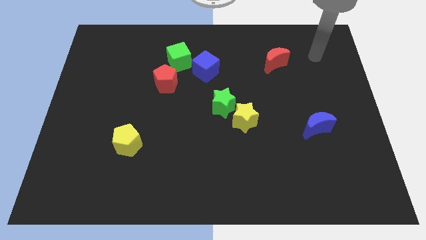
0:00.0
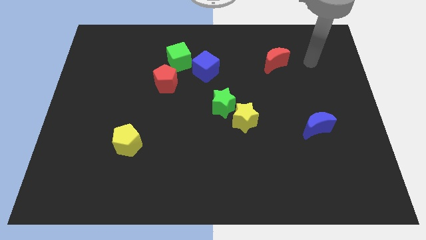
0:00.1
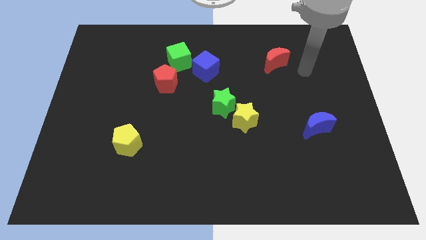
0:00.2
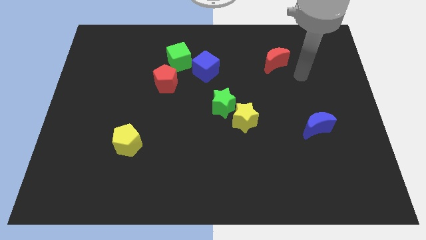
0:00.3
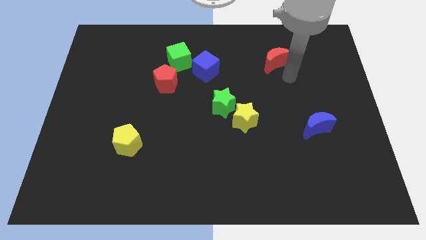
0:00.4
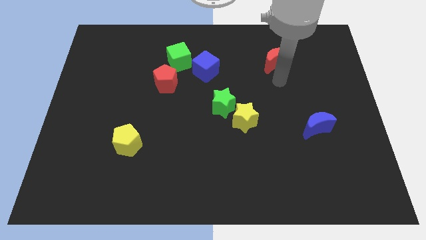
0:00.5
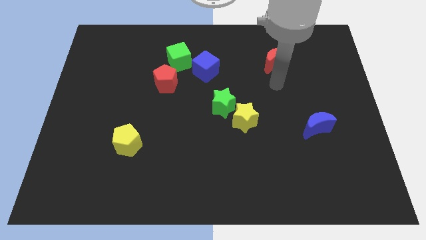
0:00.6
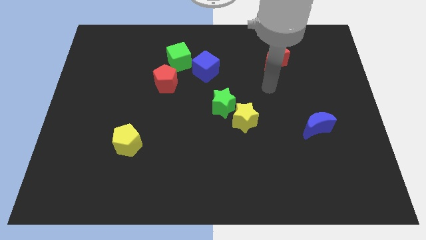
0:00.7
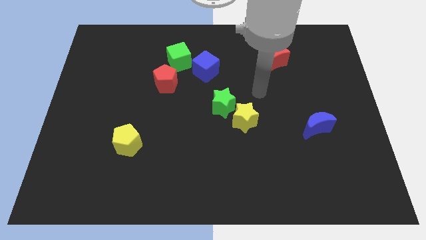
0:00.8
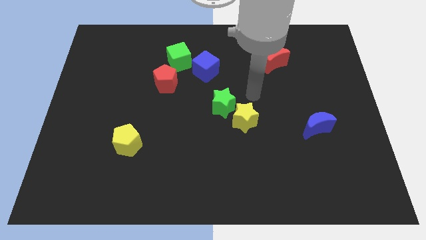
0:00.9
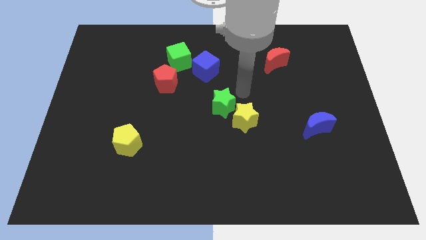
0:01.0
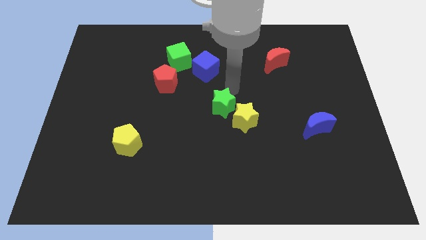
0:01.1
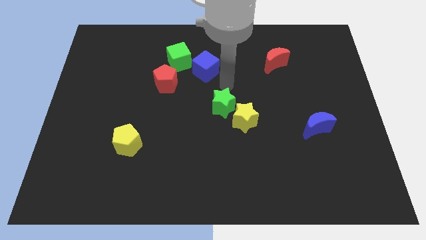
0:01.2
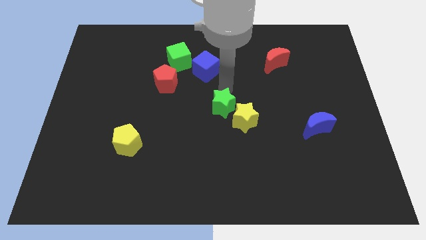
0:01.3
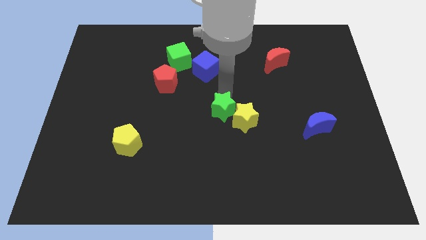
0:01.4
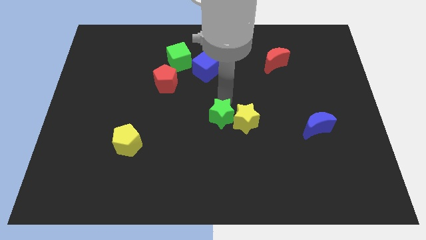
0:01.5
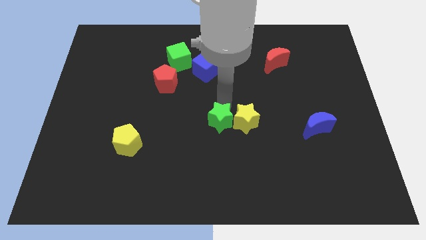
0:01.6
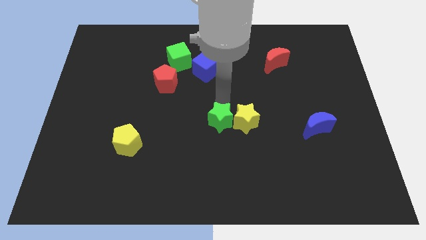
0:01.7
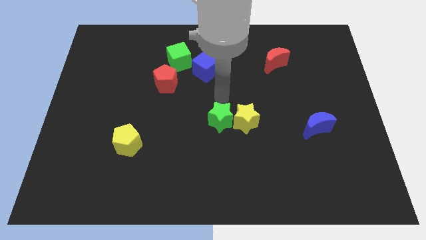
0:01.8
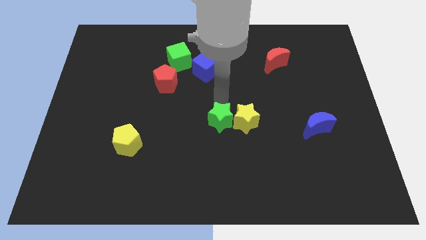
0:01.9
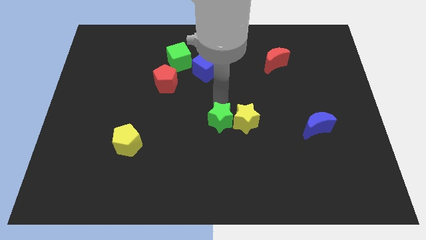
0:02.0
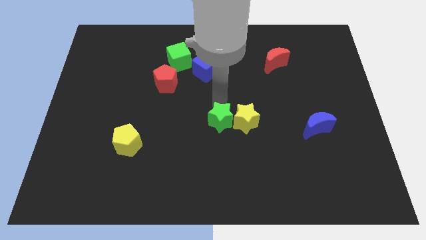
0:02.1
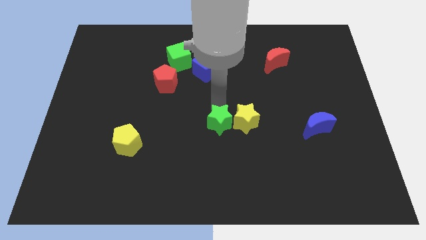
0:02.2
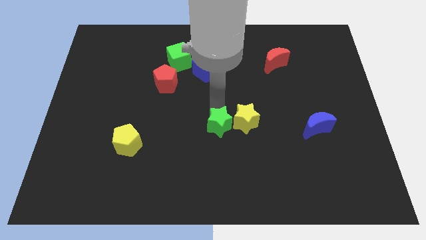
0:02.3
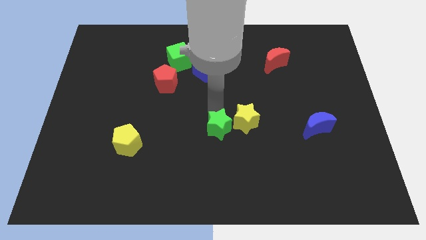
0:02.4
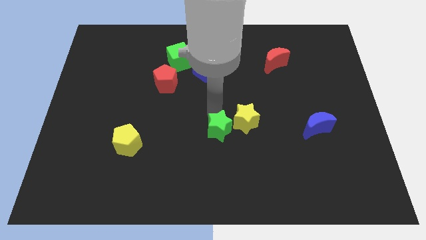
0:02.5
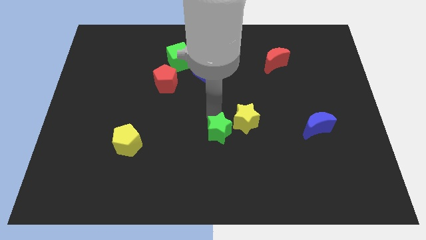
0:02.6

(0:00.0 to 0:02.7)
slightly push the green star down

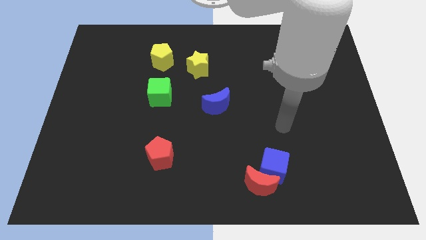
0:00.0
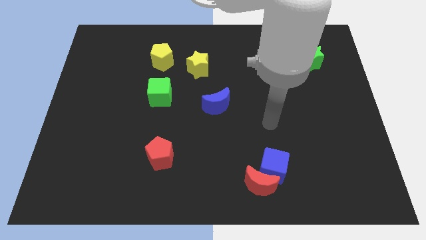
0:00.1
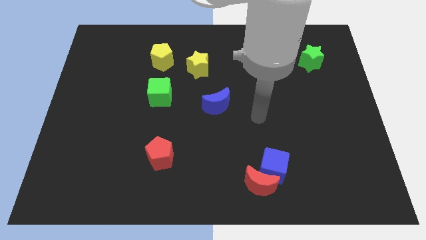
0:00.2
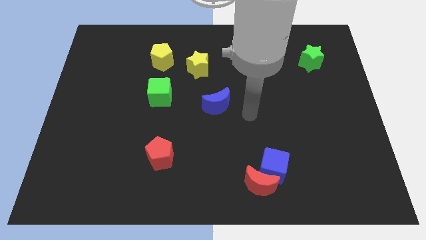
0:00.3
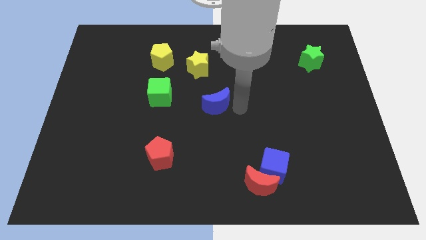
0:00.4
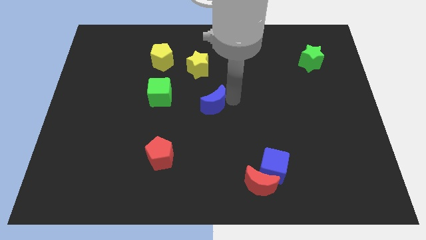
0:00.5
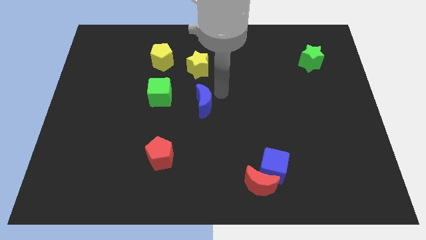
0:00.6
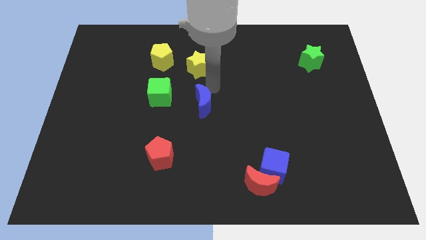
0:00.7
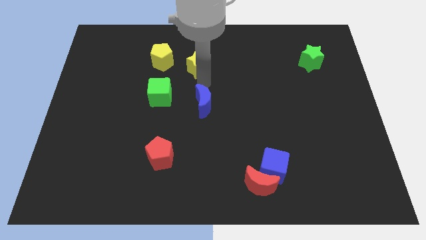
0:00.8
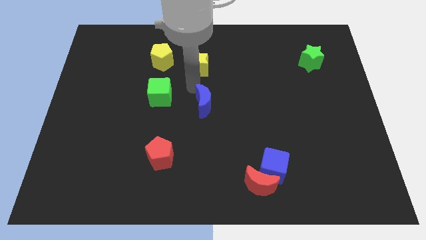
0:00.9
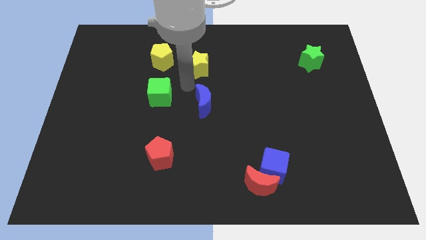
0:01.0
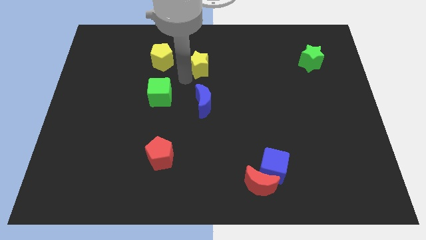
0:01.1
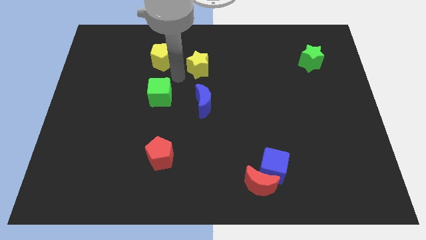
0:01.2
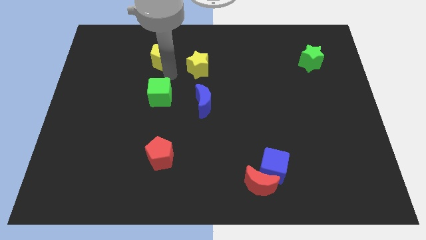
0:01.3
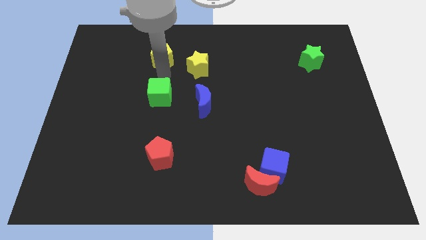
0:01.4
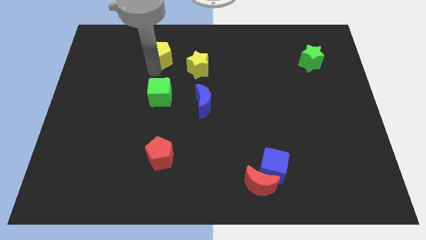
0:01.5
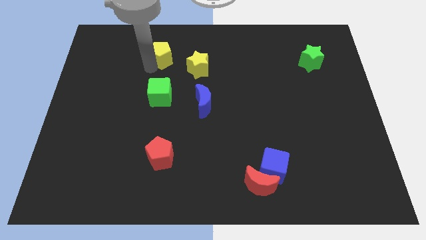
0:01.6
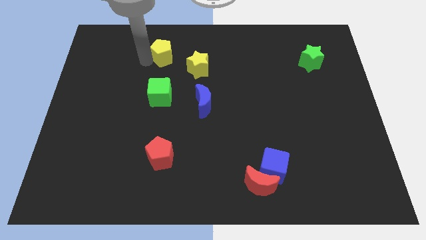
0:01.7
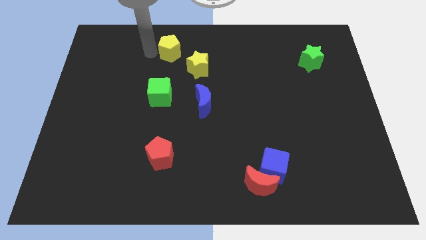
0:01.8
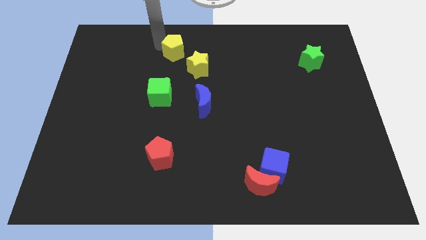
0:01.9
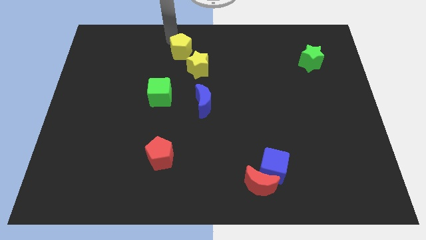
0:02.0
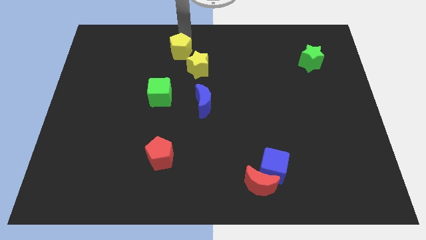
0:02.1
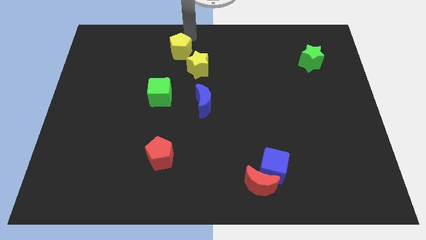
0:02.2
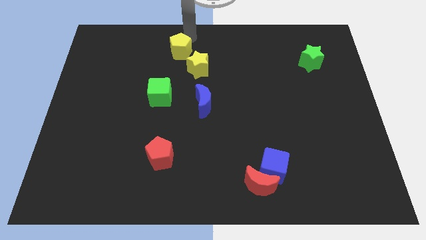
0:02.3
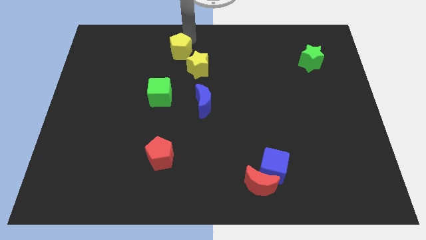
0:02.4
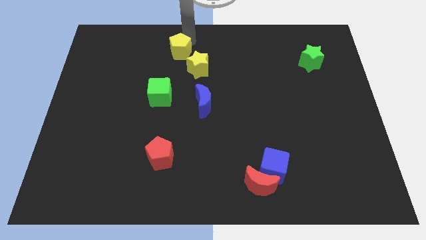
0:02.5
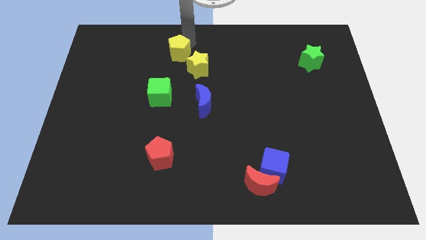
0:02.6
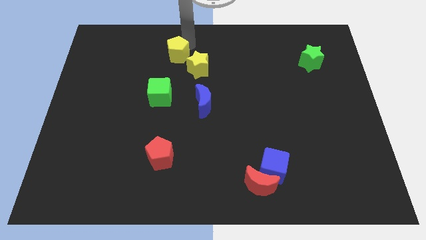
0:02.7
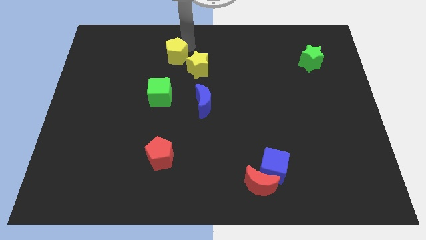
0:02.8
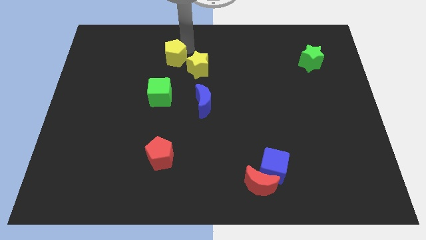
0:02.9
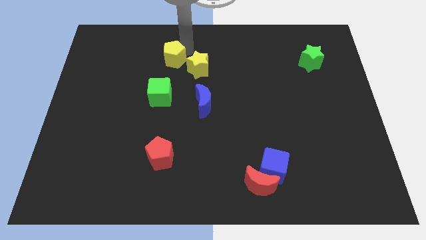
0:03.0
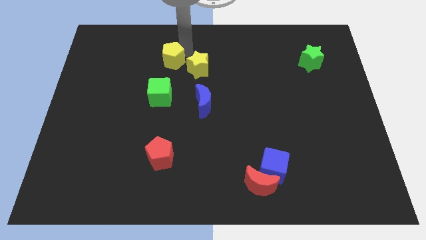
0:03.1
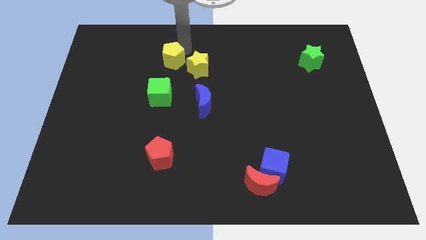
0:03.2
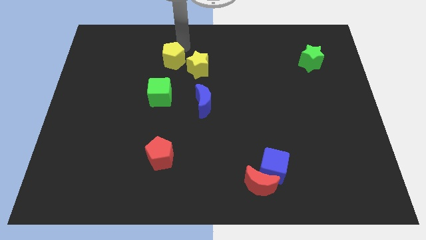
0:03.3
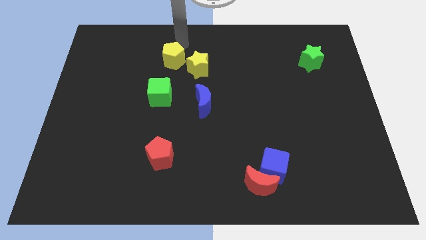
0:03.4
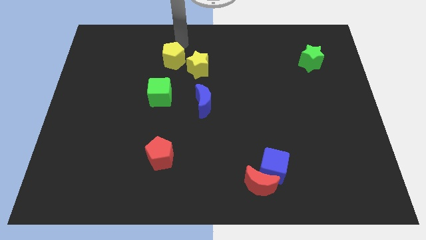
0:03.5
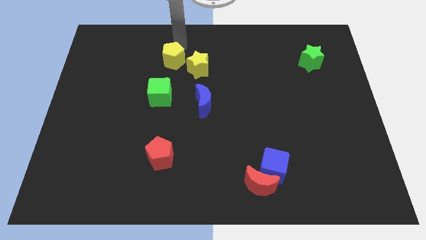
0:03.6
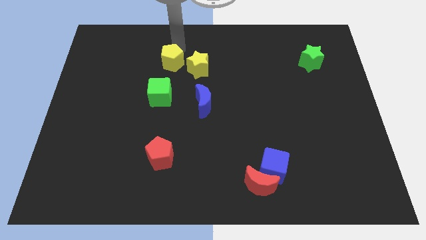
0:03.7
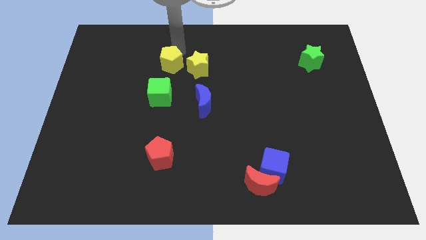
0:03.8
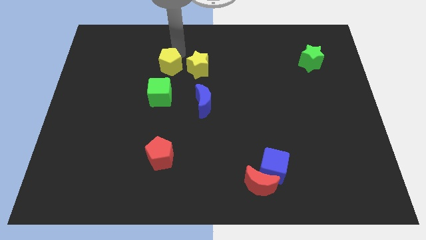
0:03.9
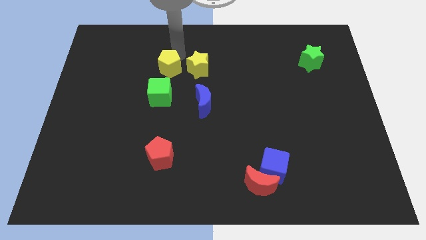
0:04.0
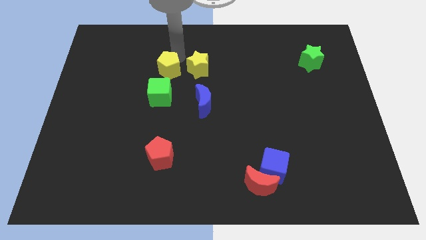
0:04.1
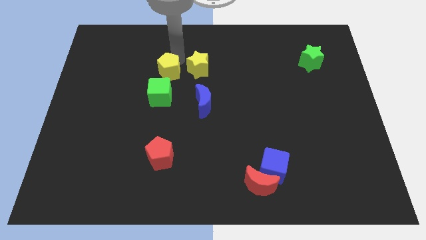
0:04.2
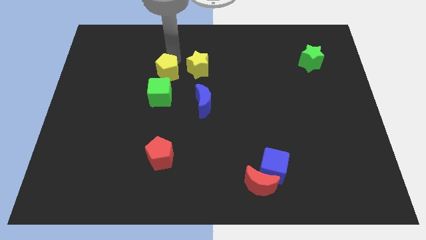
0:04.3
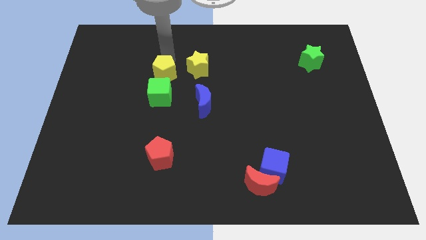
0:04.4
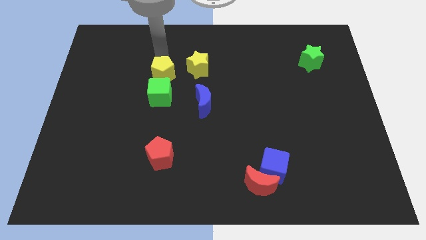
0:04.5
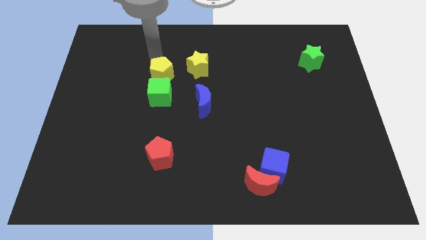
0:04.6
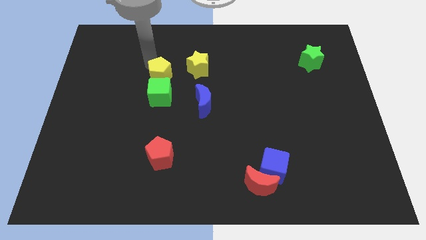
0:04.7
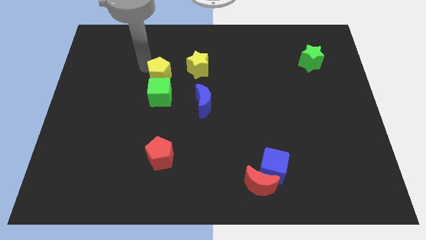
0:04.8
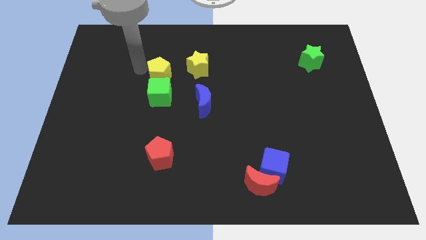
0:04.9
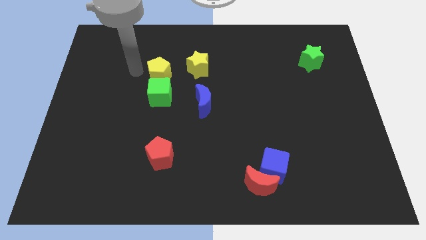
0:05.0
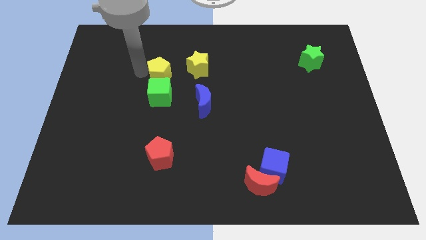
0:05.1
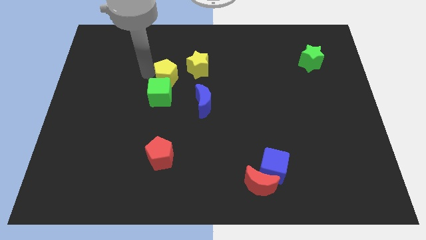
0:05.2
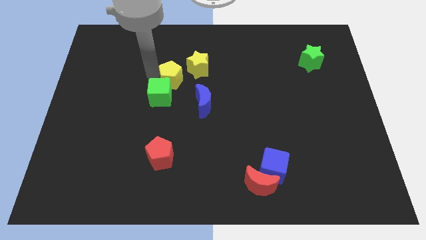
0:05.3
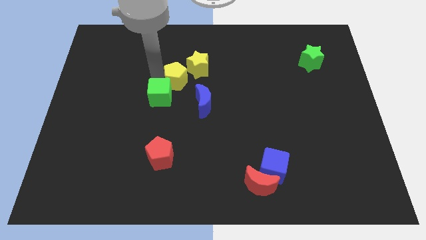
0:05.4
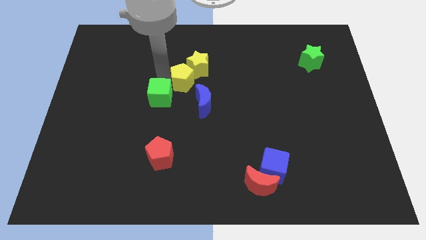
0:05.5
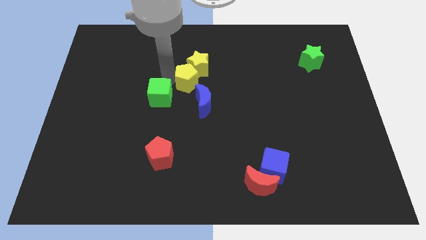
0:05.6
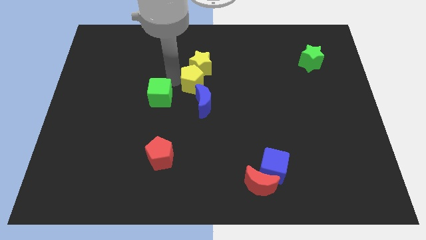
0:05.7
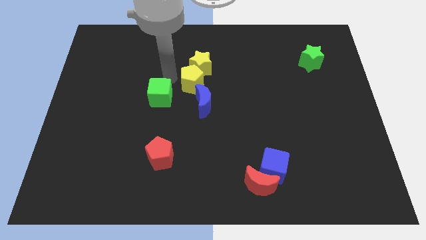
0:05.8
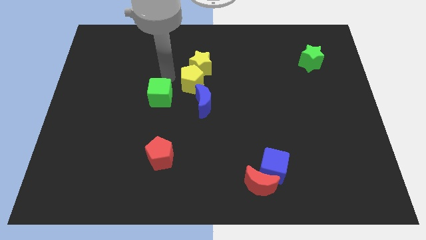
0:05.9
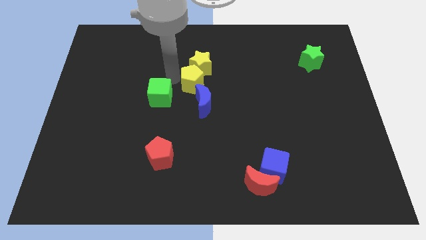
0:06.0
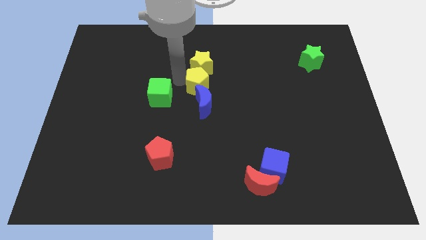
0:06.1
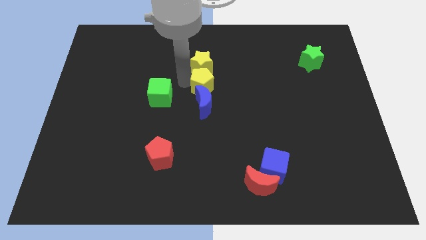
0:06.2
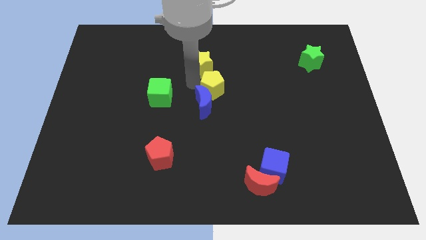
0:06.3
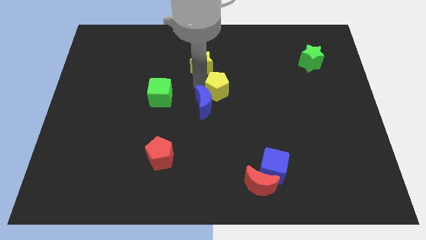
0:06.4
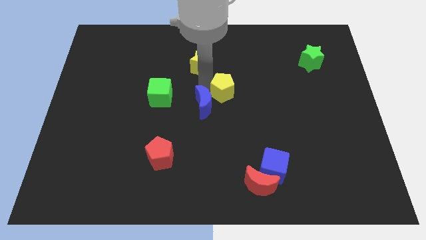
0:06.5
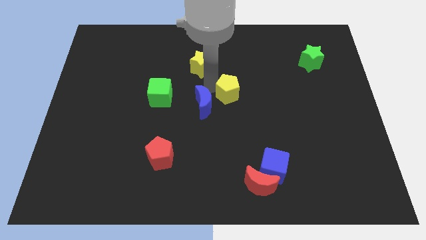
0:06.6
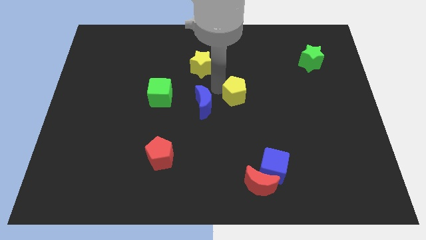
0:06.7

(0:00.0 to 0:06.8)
push the yellow pentagon downwards and to the right diagonally
